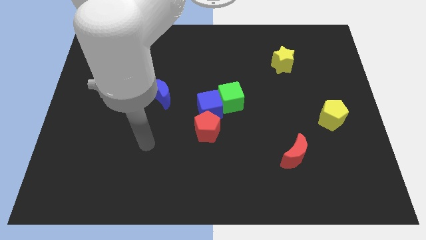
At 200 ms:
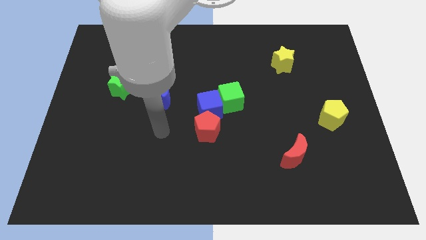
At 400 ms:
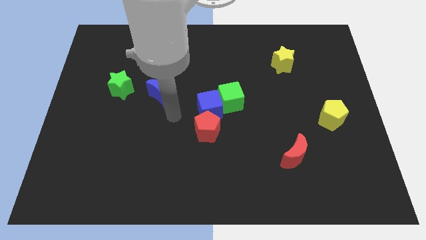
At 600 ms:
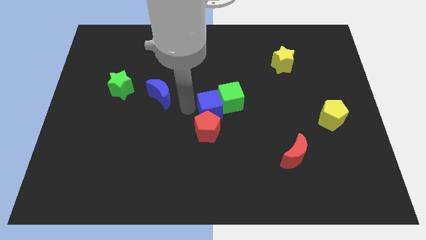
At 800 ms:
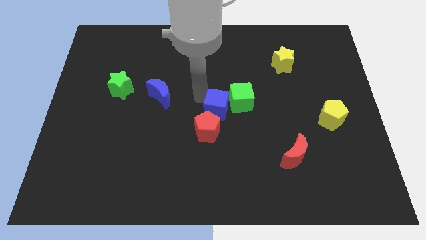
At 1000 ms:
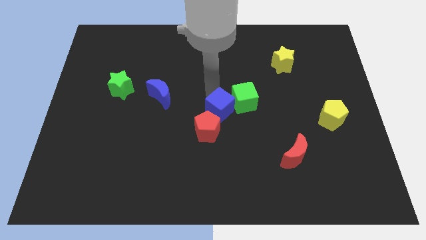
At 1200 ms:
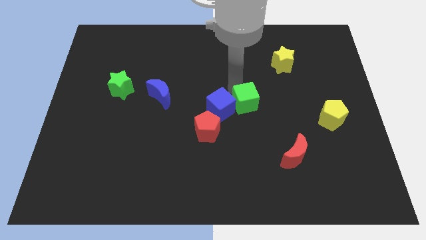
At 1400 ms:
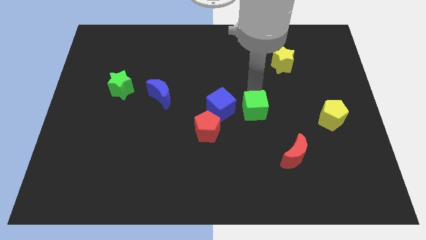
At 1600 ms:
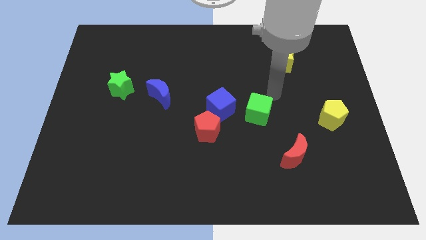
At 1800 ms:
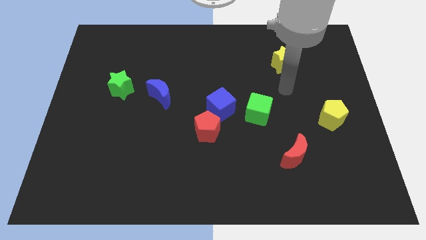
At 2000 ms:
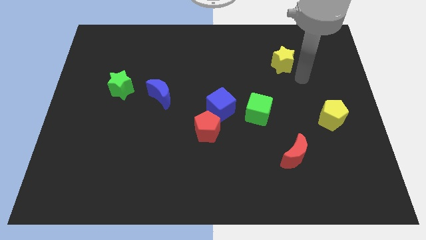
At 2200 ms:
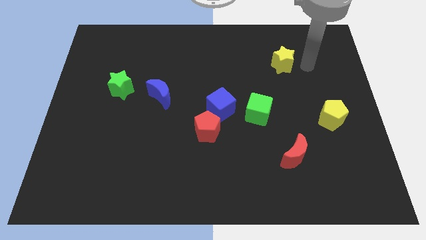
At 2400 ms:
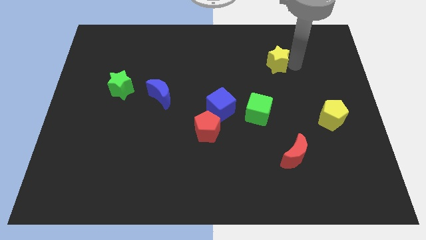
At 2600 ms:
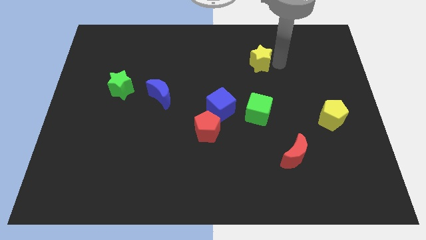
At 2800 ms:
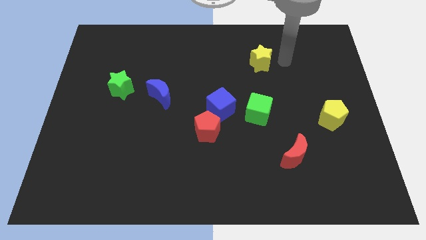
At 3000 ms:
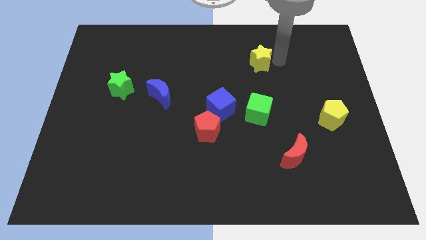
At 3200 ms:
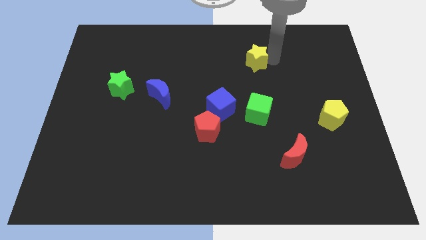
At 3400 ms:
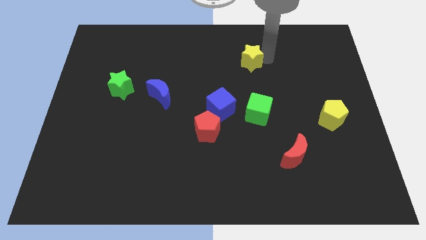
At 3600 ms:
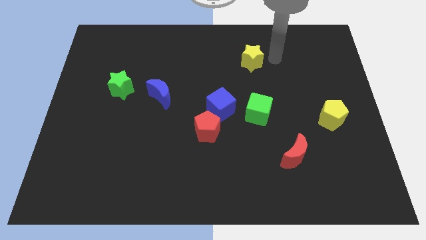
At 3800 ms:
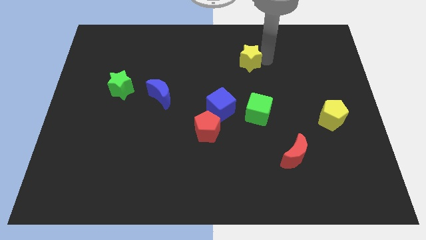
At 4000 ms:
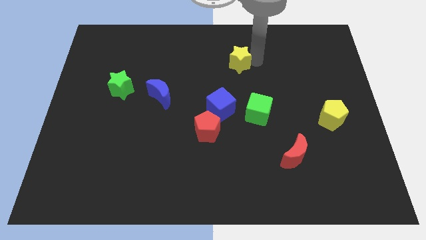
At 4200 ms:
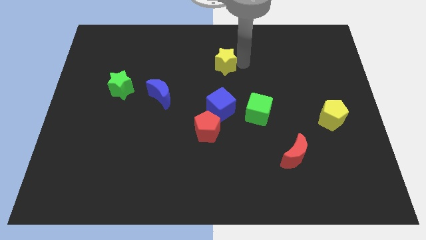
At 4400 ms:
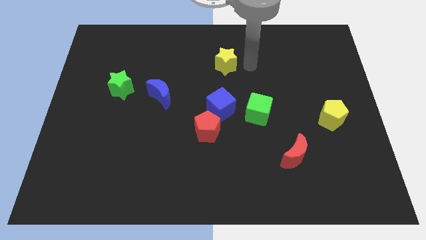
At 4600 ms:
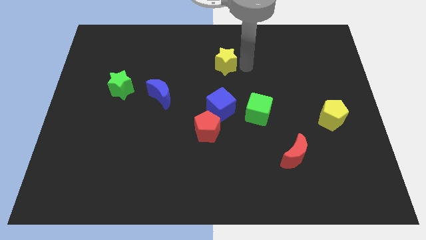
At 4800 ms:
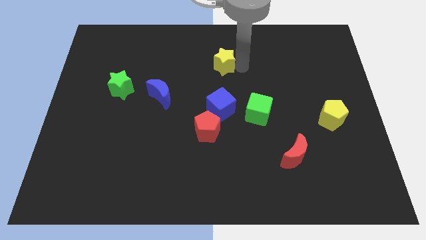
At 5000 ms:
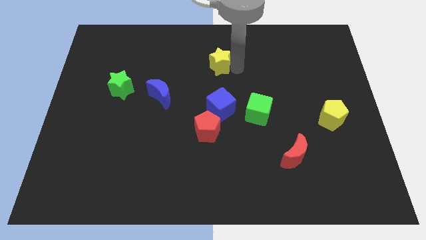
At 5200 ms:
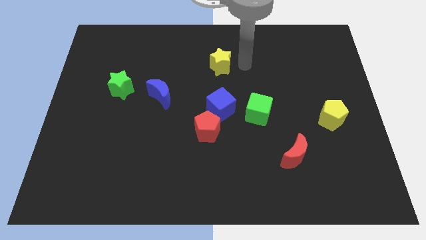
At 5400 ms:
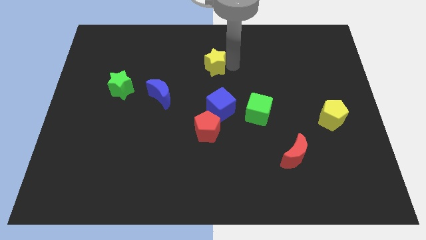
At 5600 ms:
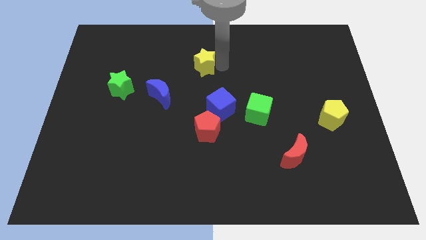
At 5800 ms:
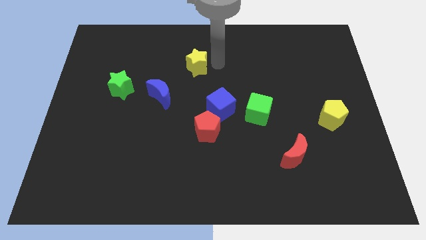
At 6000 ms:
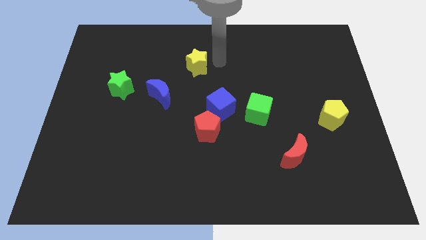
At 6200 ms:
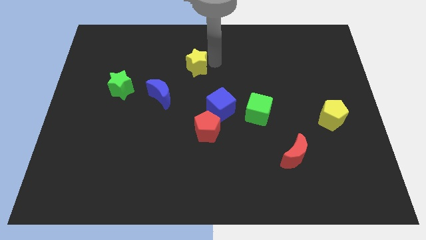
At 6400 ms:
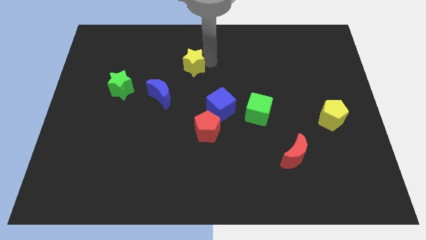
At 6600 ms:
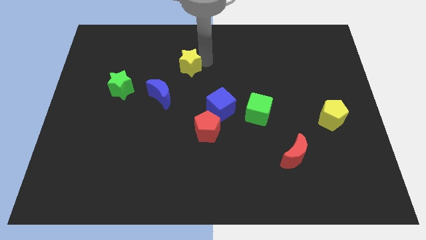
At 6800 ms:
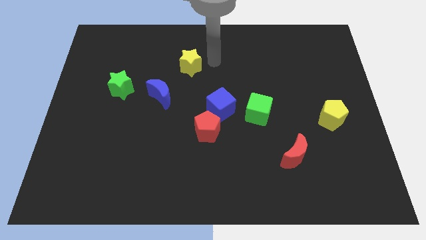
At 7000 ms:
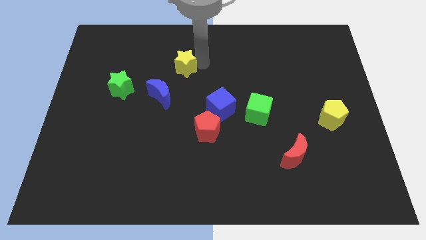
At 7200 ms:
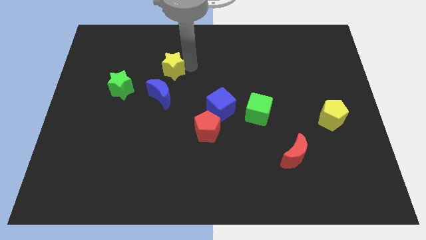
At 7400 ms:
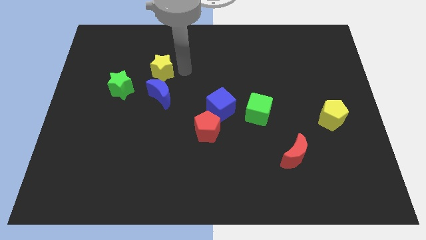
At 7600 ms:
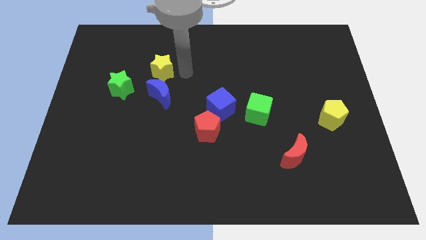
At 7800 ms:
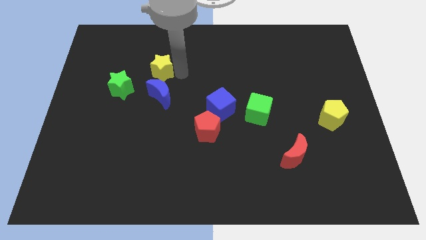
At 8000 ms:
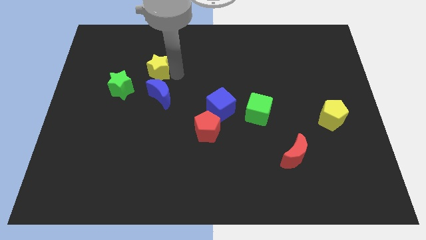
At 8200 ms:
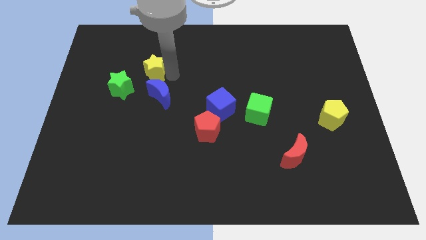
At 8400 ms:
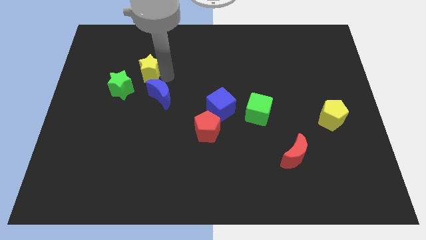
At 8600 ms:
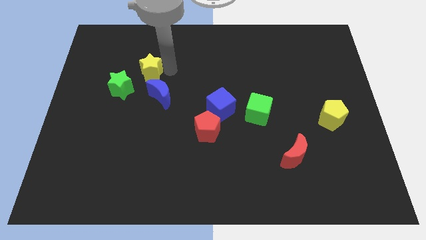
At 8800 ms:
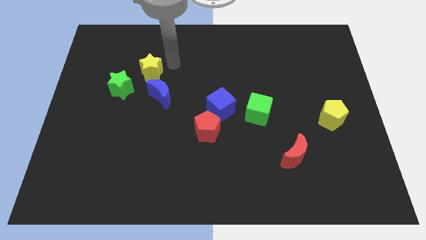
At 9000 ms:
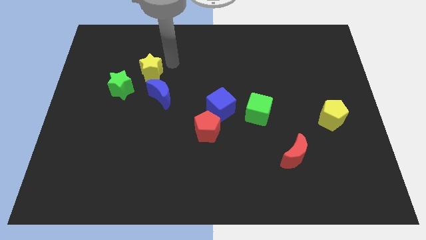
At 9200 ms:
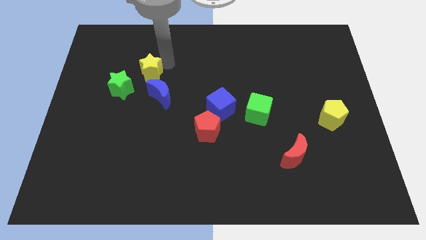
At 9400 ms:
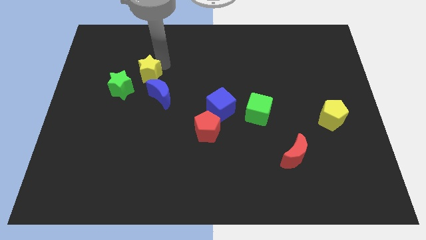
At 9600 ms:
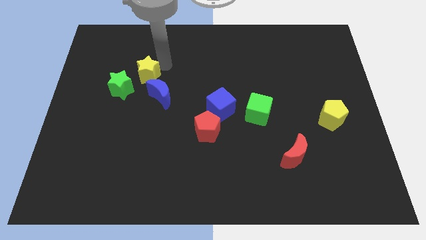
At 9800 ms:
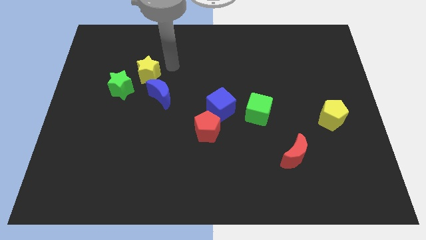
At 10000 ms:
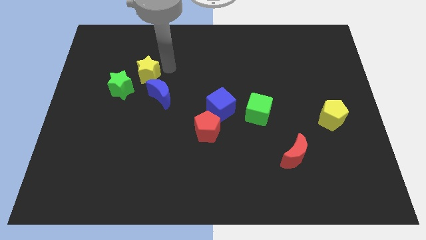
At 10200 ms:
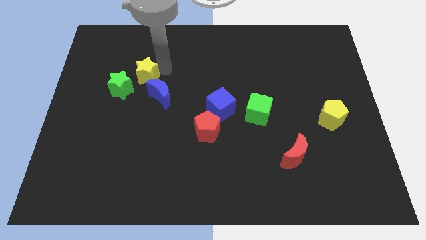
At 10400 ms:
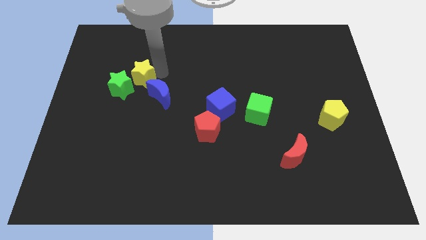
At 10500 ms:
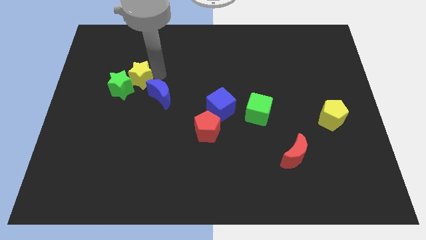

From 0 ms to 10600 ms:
push the yellow star towards the green star

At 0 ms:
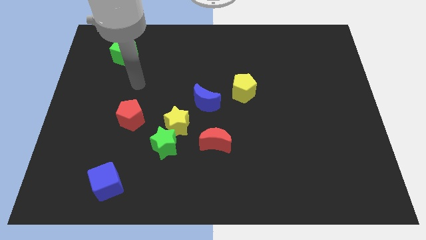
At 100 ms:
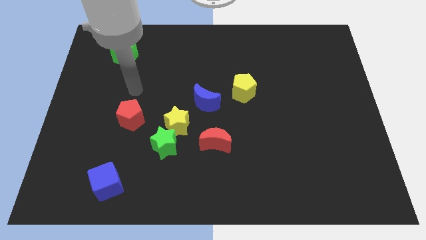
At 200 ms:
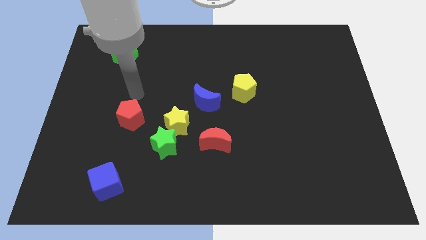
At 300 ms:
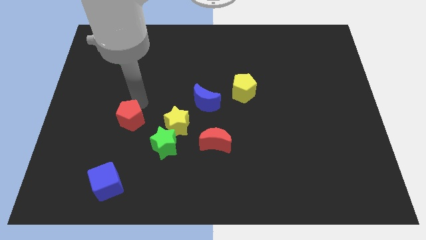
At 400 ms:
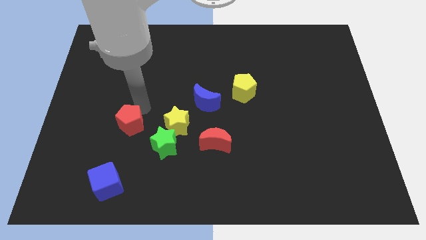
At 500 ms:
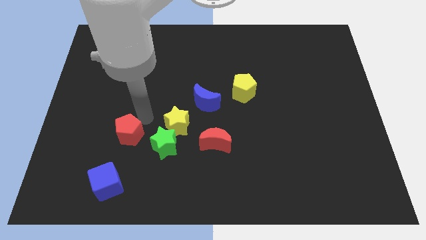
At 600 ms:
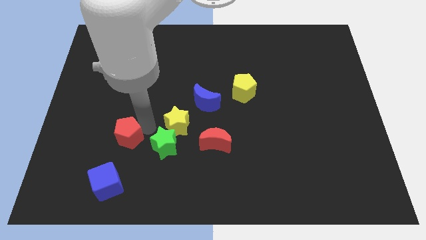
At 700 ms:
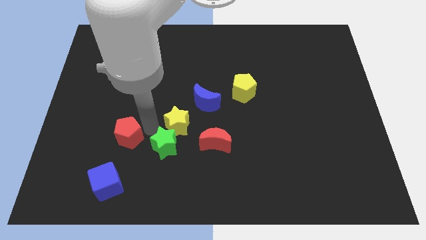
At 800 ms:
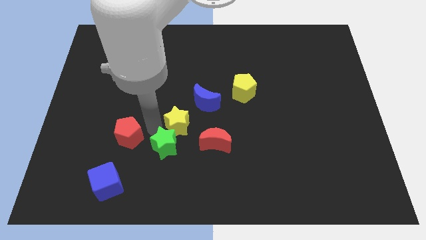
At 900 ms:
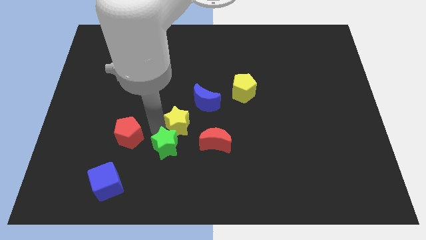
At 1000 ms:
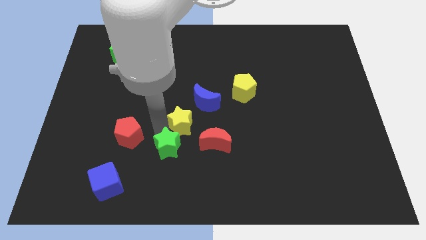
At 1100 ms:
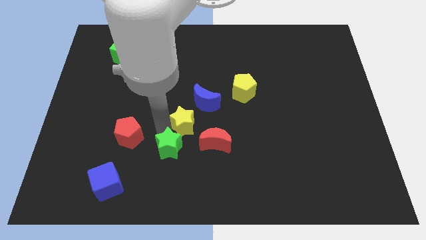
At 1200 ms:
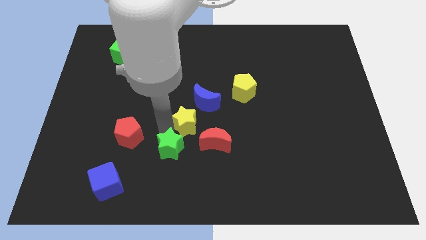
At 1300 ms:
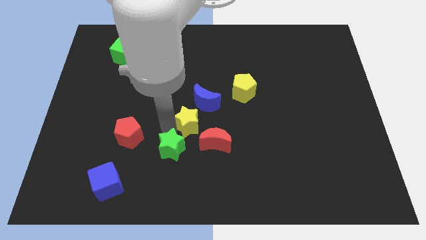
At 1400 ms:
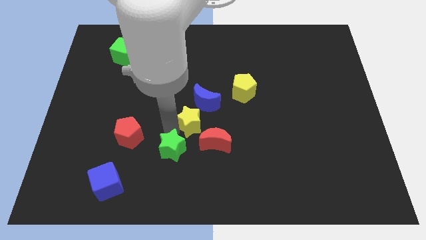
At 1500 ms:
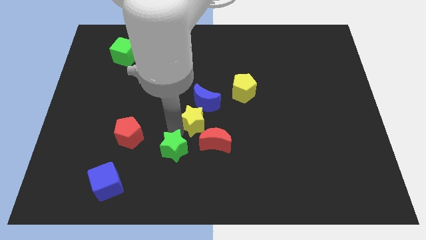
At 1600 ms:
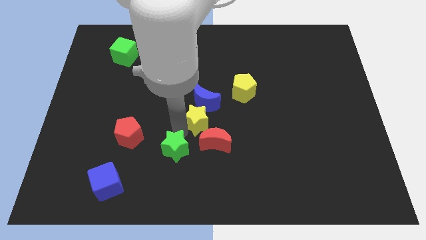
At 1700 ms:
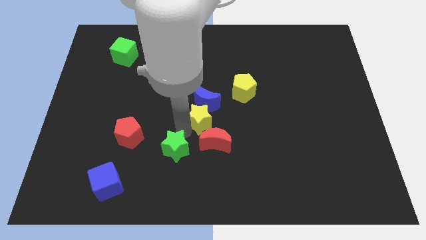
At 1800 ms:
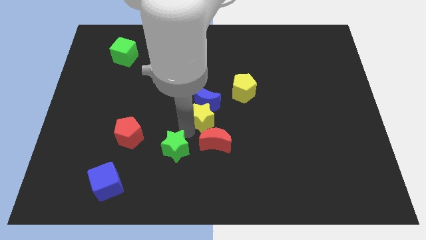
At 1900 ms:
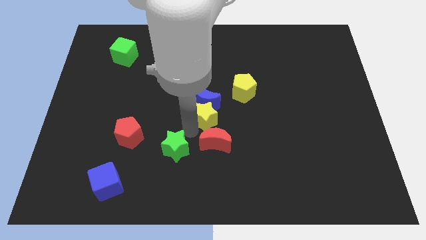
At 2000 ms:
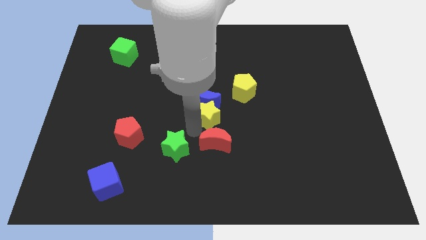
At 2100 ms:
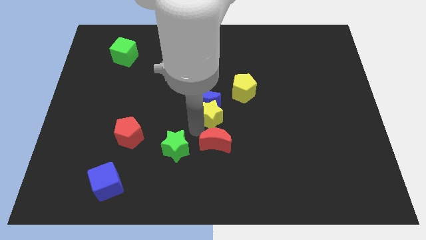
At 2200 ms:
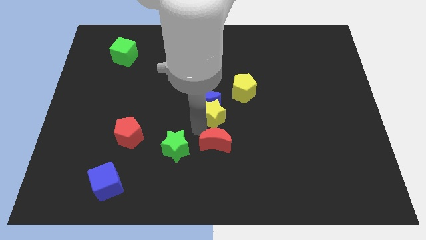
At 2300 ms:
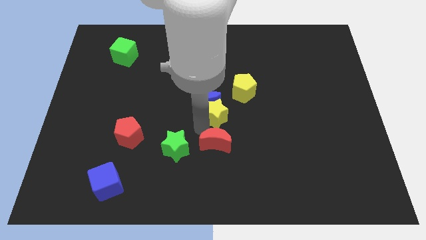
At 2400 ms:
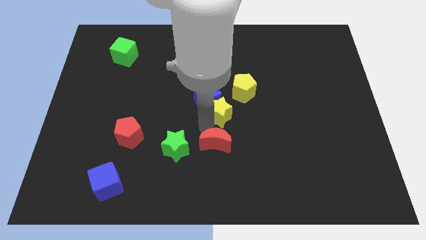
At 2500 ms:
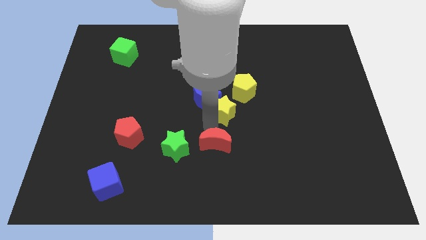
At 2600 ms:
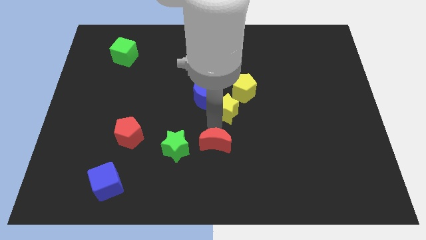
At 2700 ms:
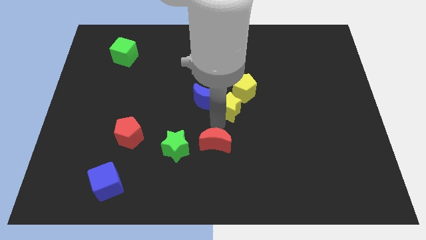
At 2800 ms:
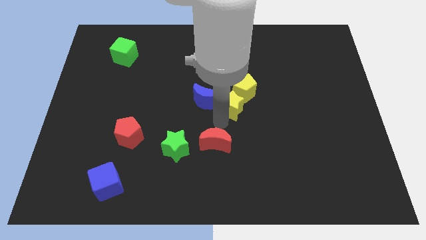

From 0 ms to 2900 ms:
put the yellow star next to the yellow pentagon
